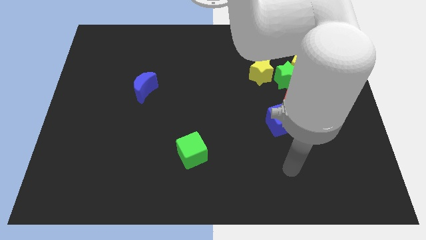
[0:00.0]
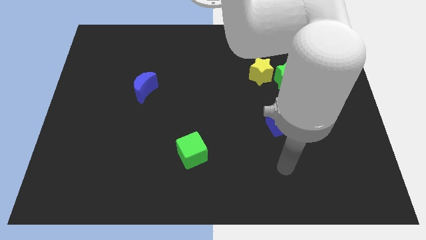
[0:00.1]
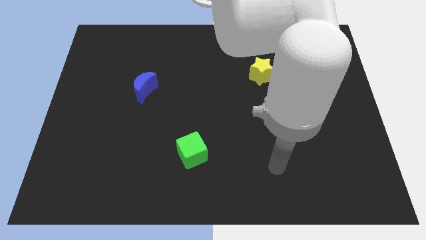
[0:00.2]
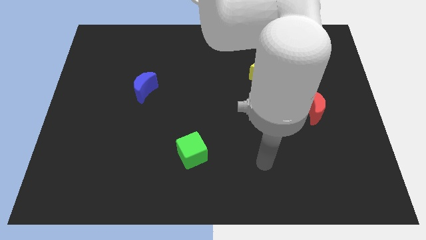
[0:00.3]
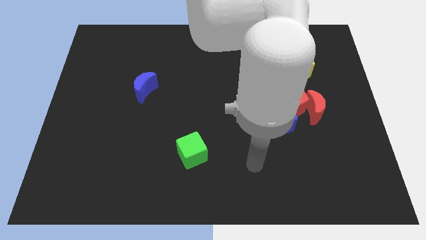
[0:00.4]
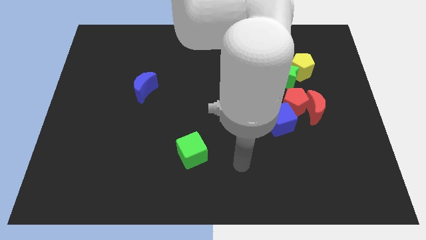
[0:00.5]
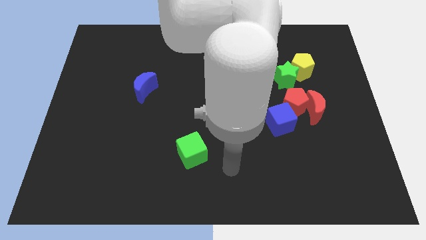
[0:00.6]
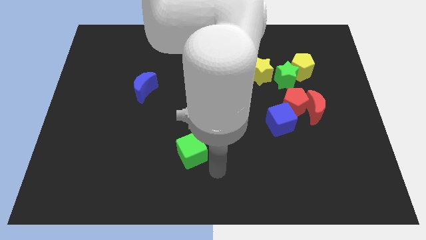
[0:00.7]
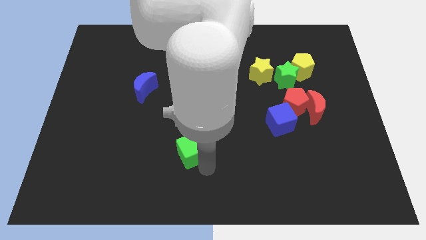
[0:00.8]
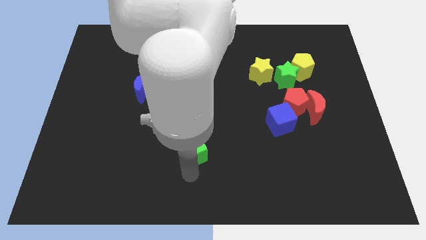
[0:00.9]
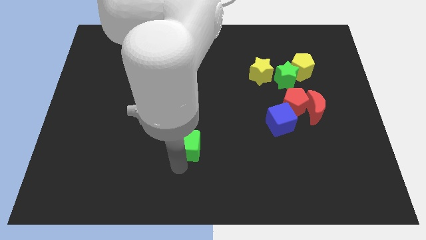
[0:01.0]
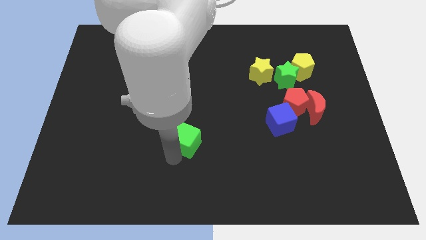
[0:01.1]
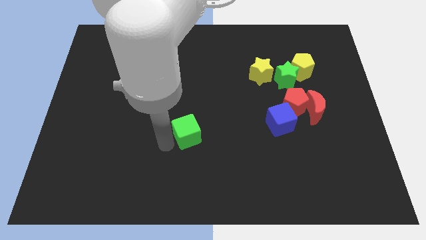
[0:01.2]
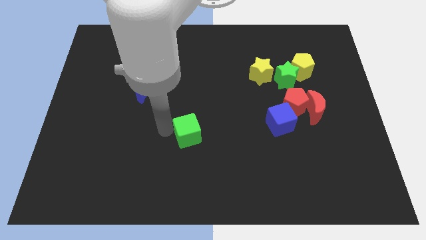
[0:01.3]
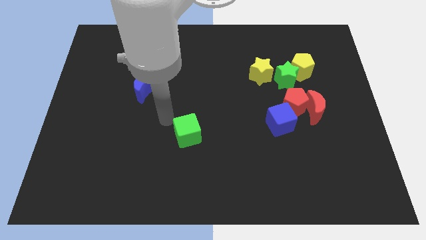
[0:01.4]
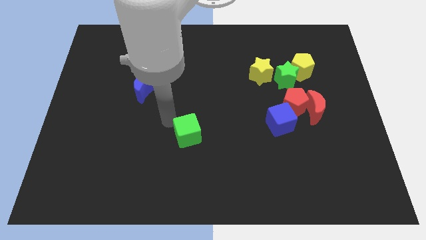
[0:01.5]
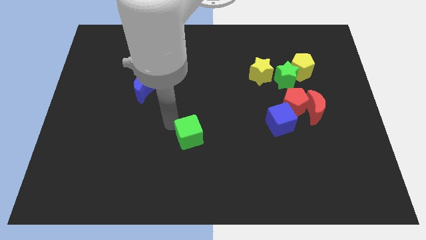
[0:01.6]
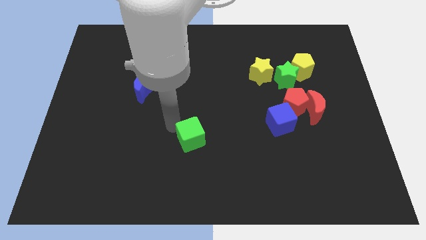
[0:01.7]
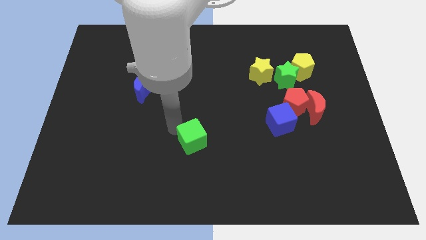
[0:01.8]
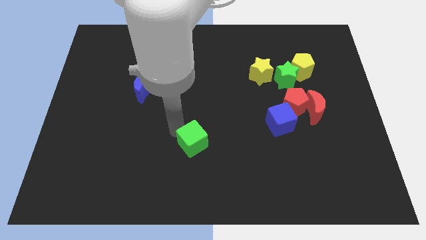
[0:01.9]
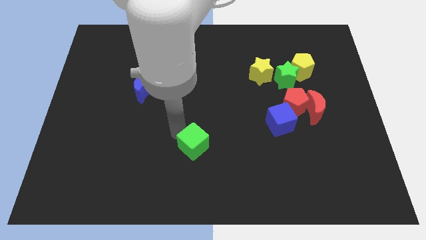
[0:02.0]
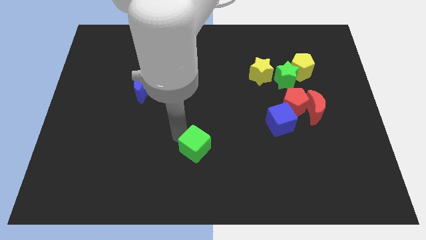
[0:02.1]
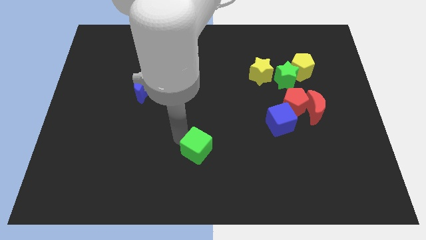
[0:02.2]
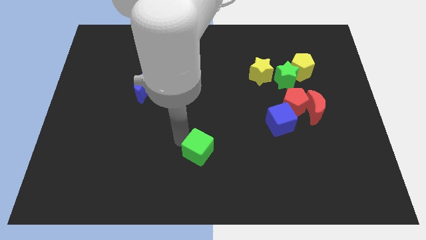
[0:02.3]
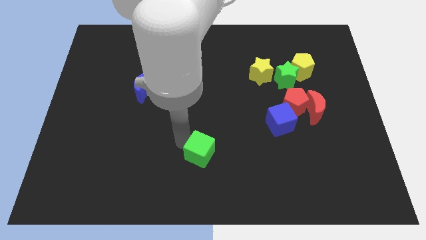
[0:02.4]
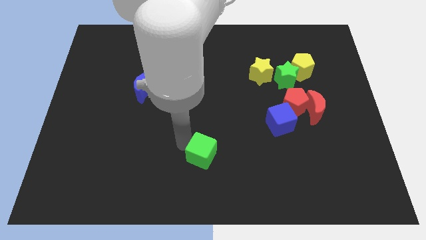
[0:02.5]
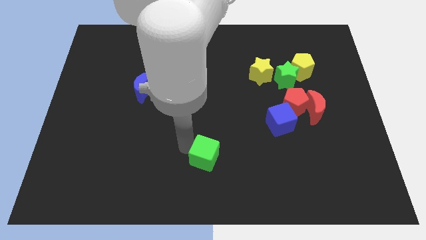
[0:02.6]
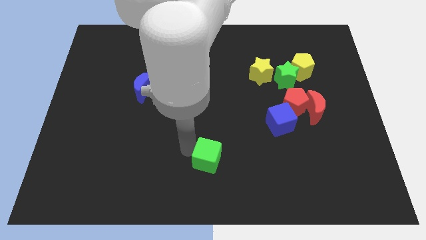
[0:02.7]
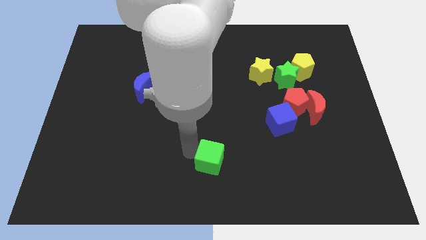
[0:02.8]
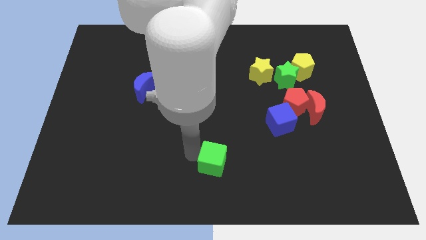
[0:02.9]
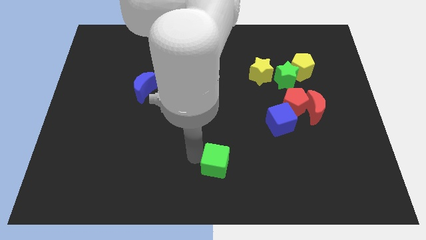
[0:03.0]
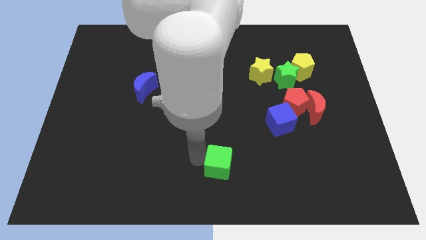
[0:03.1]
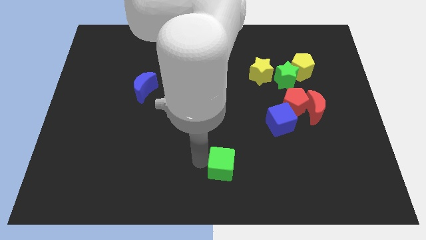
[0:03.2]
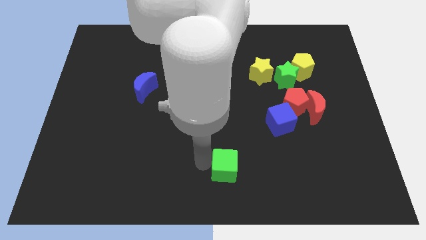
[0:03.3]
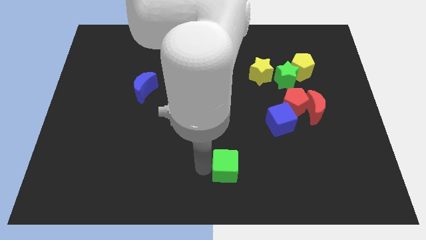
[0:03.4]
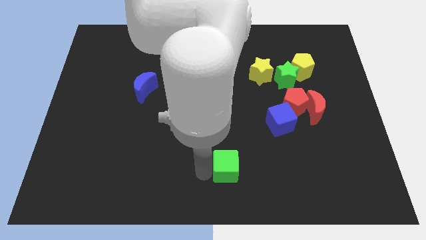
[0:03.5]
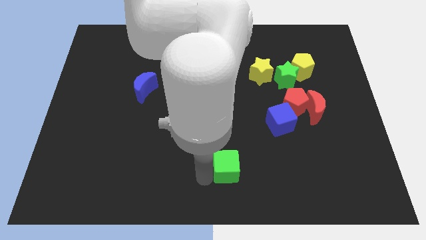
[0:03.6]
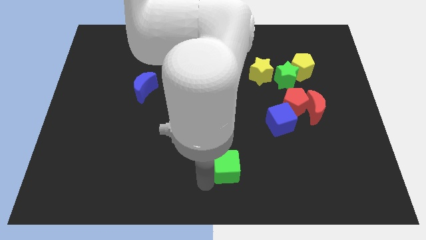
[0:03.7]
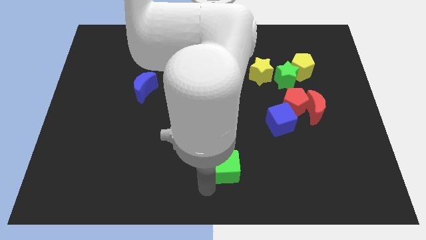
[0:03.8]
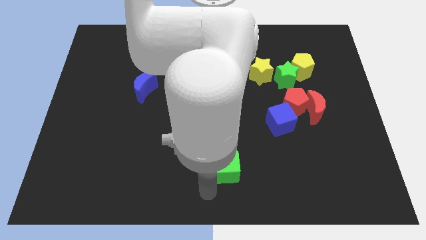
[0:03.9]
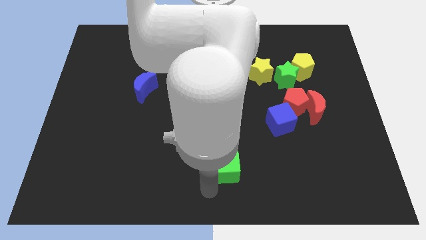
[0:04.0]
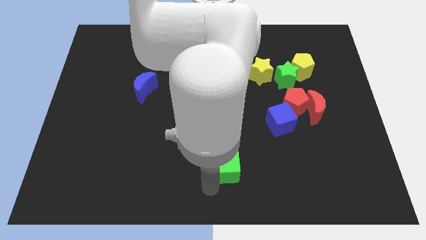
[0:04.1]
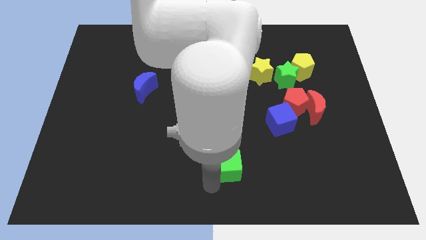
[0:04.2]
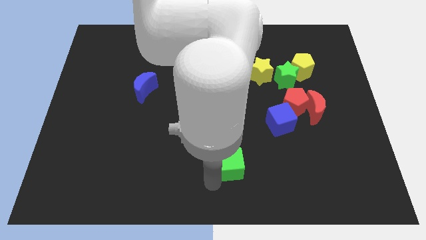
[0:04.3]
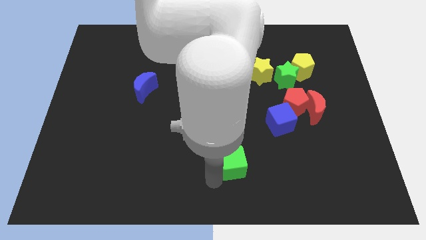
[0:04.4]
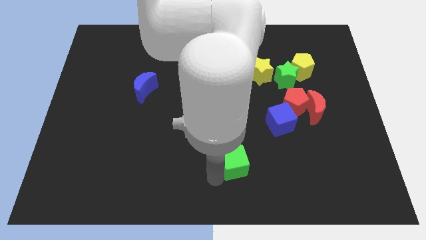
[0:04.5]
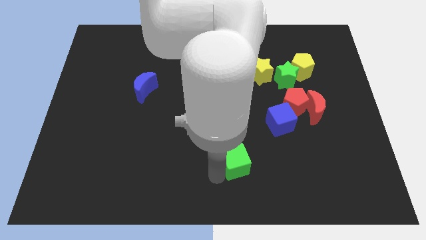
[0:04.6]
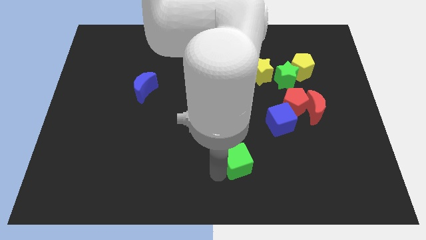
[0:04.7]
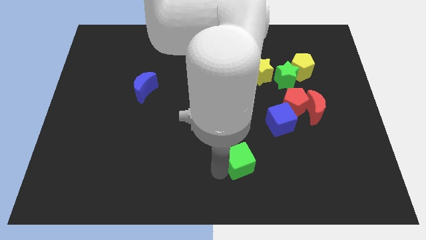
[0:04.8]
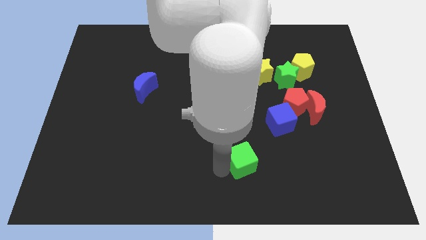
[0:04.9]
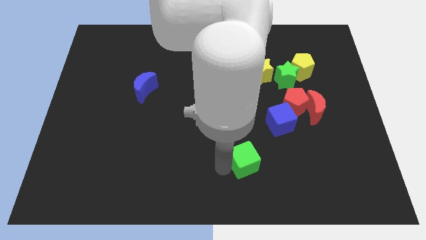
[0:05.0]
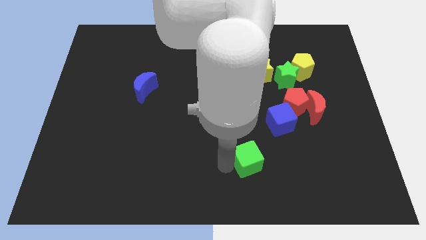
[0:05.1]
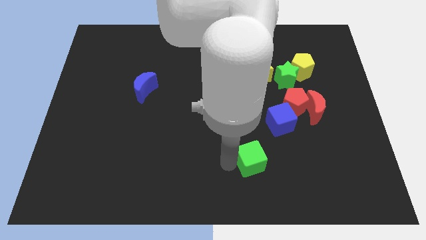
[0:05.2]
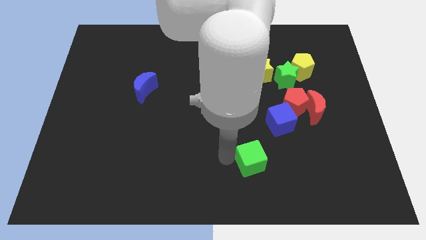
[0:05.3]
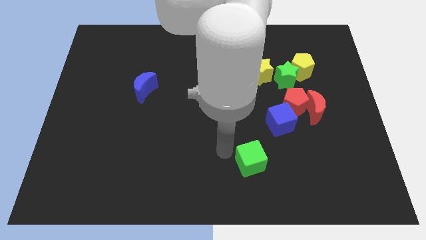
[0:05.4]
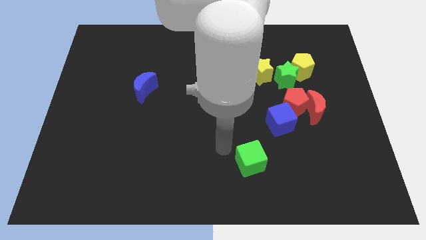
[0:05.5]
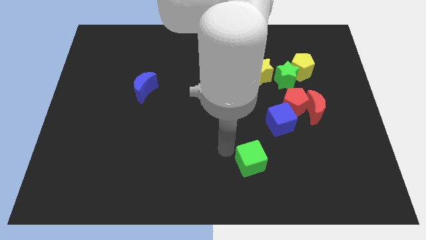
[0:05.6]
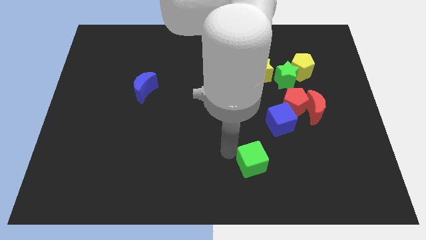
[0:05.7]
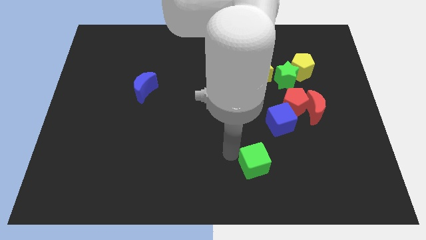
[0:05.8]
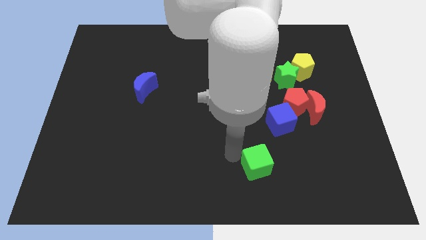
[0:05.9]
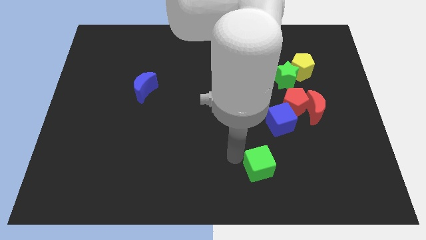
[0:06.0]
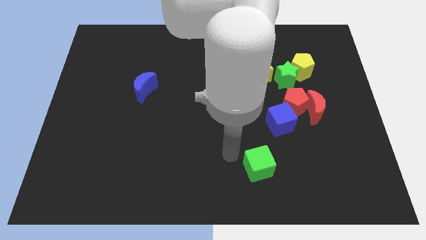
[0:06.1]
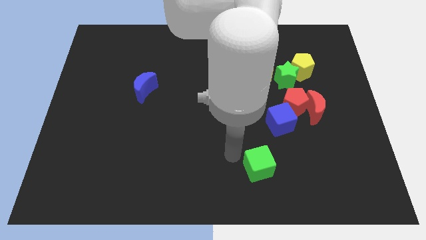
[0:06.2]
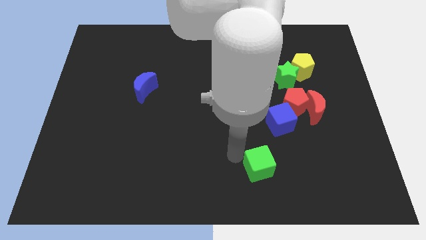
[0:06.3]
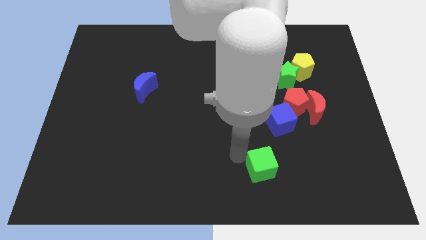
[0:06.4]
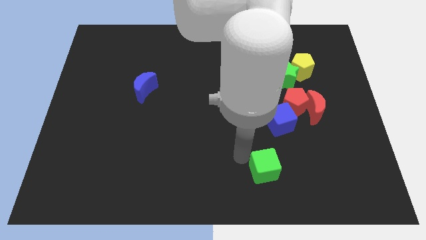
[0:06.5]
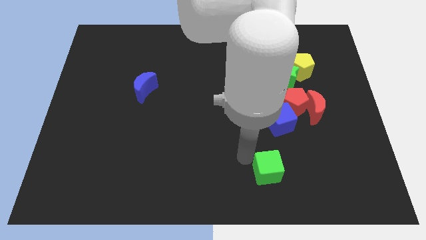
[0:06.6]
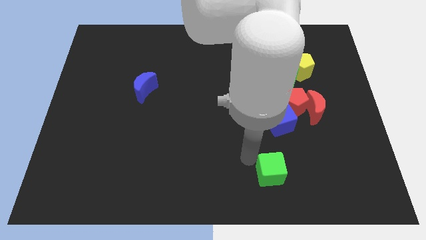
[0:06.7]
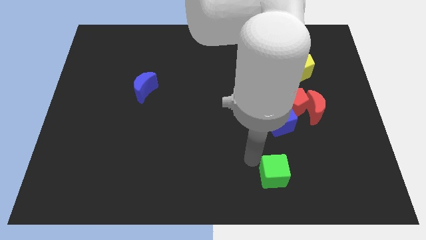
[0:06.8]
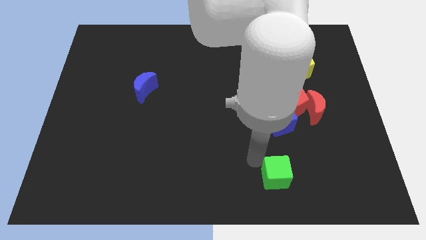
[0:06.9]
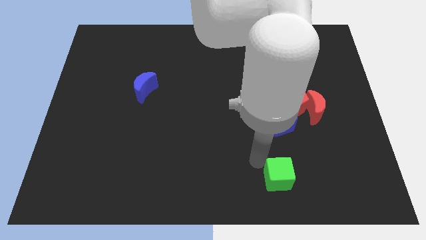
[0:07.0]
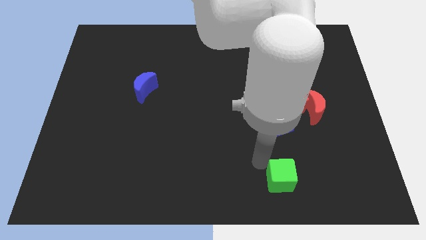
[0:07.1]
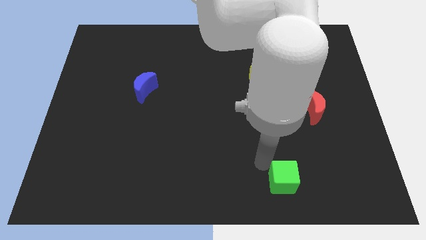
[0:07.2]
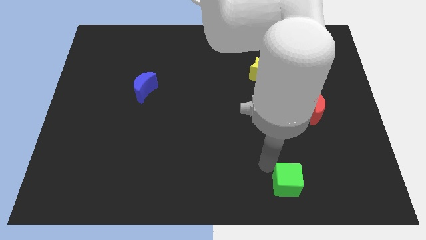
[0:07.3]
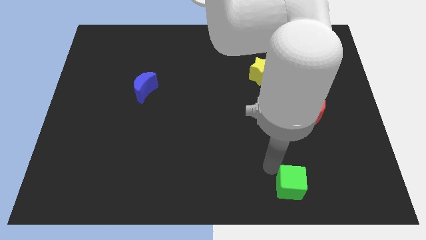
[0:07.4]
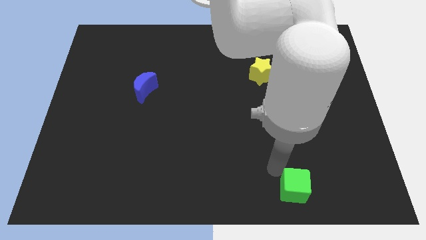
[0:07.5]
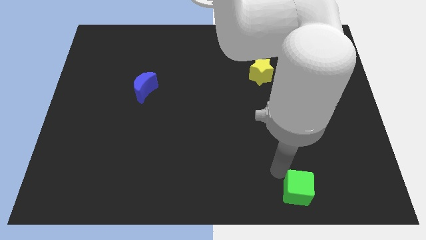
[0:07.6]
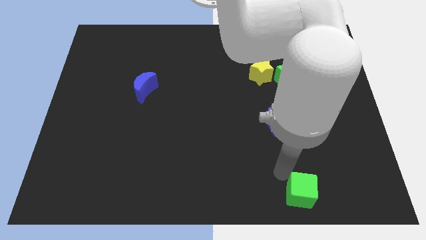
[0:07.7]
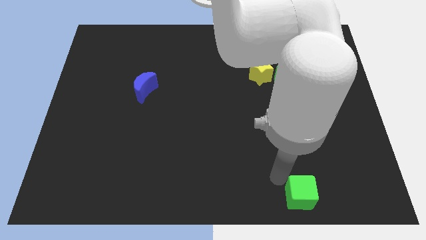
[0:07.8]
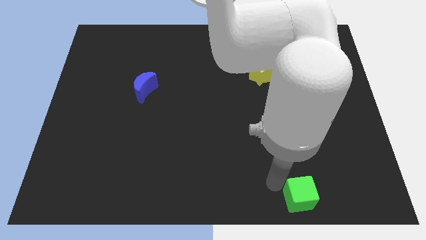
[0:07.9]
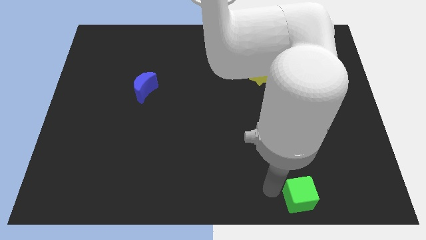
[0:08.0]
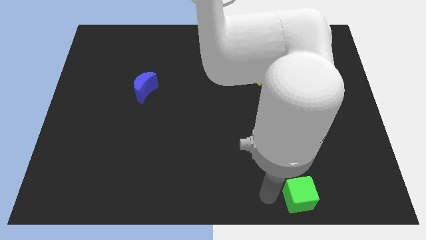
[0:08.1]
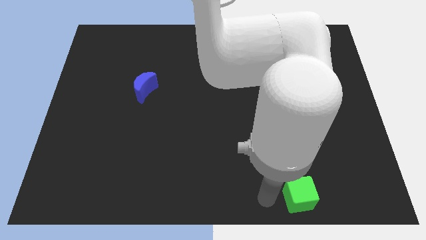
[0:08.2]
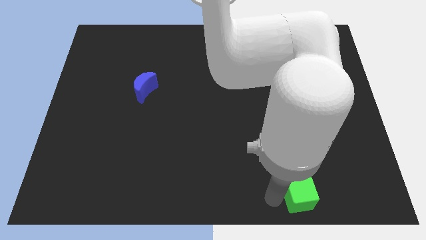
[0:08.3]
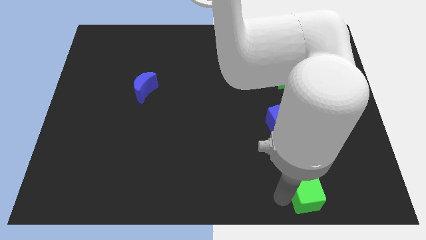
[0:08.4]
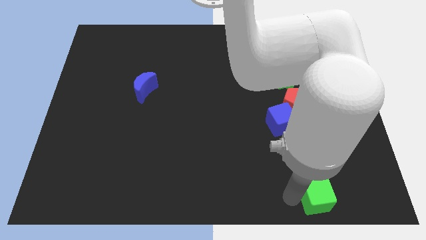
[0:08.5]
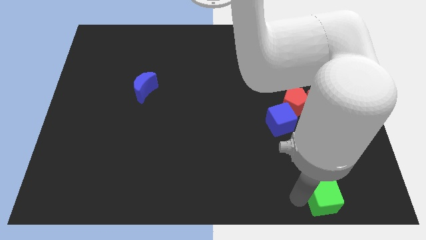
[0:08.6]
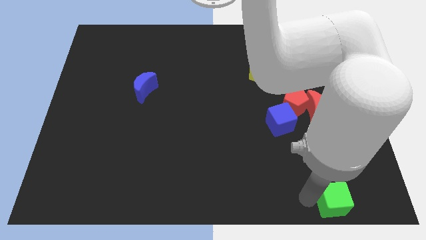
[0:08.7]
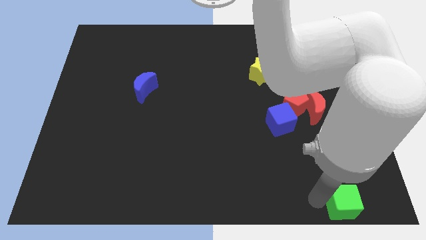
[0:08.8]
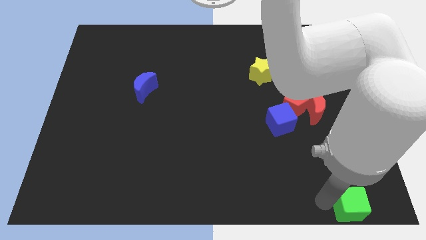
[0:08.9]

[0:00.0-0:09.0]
push the green cube to the bottom right of the board
